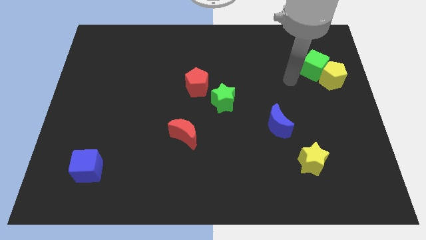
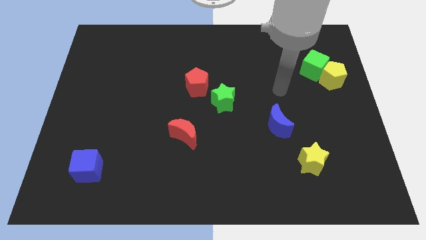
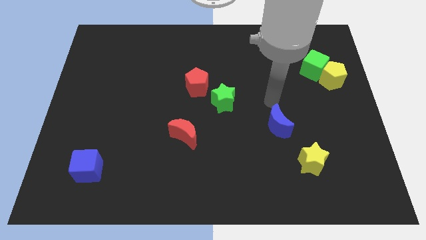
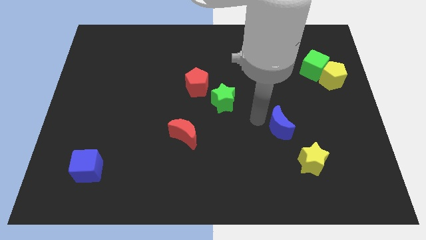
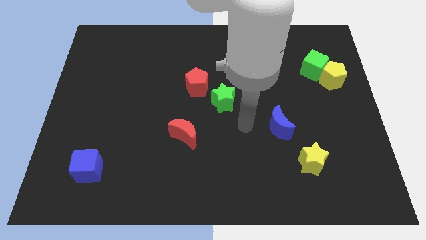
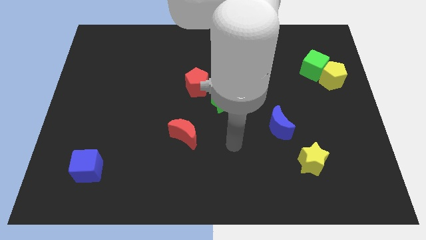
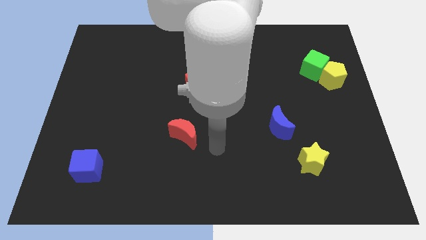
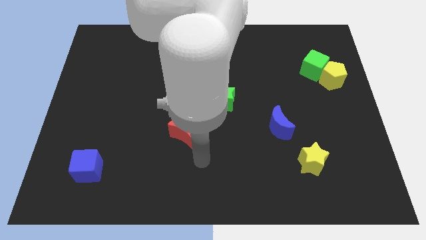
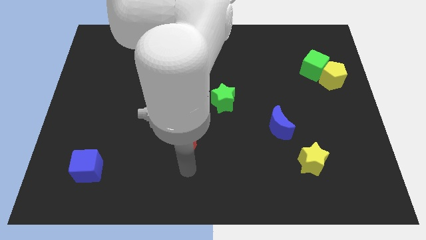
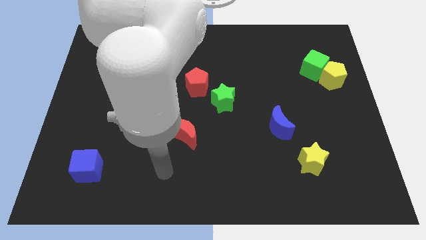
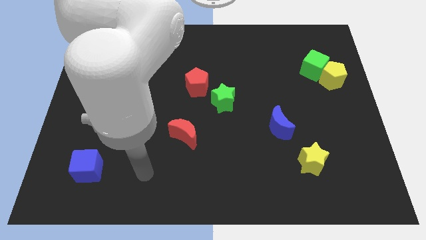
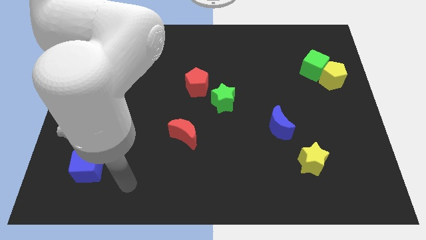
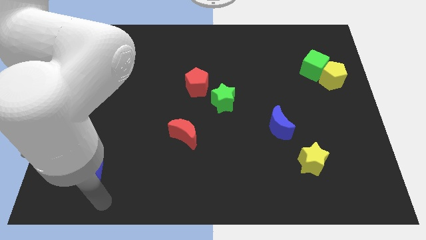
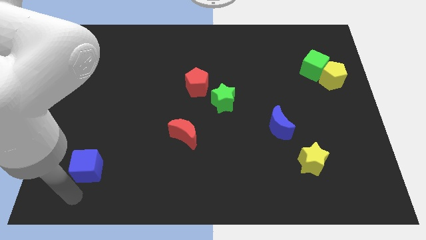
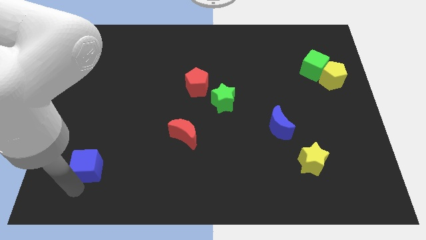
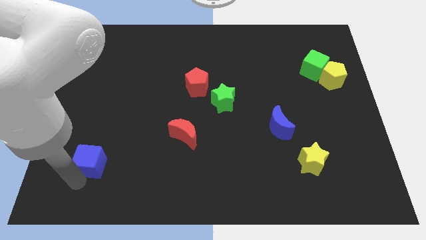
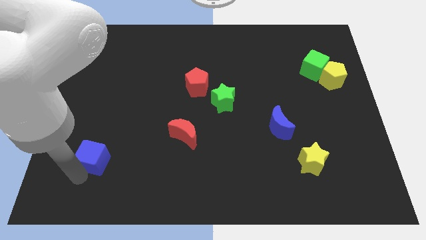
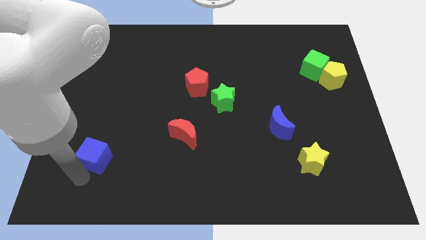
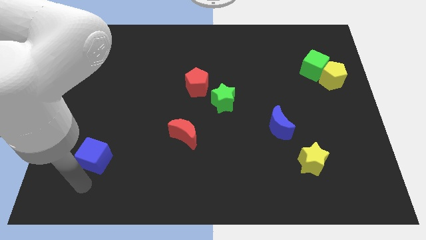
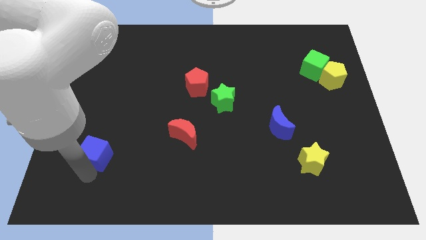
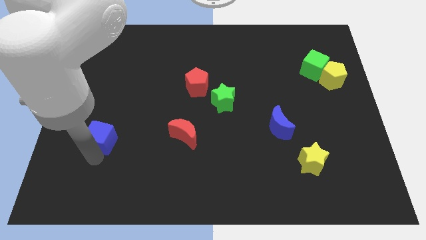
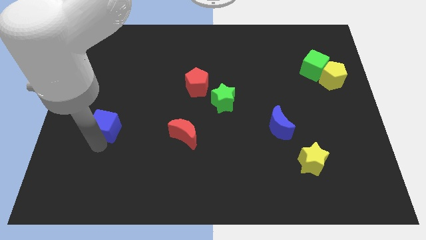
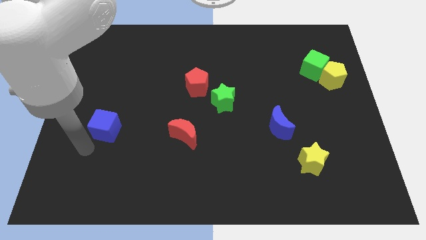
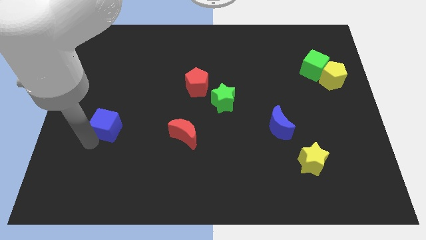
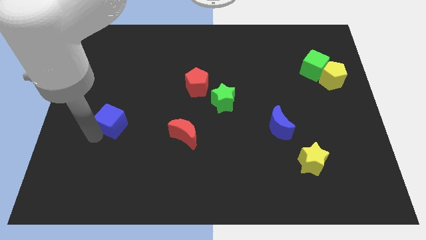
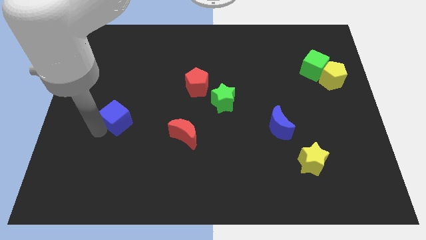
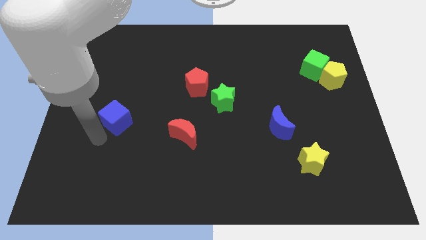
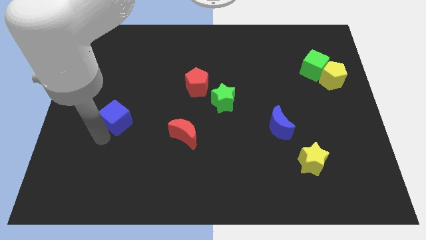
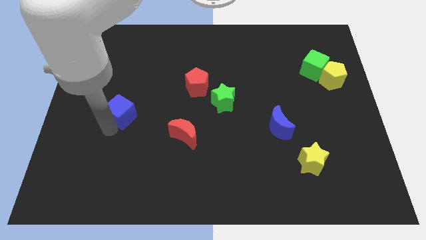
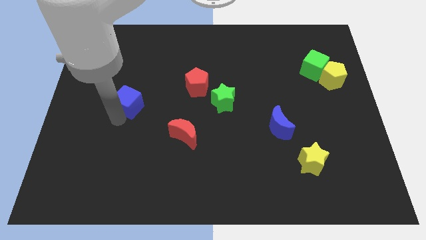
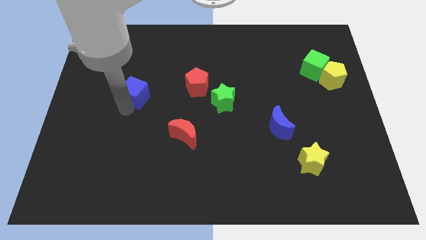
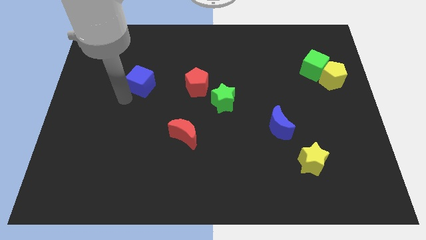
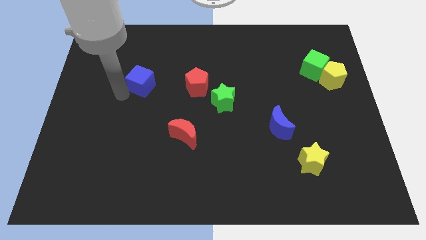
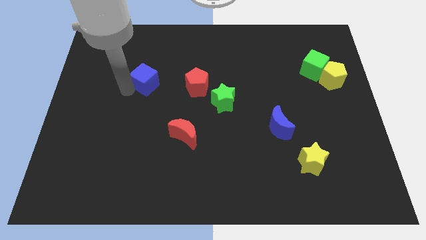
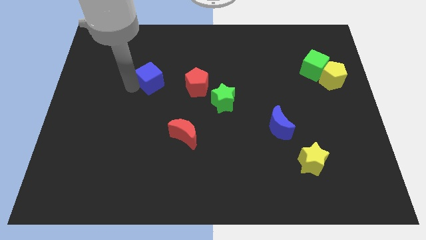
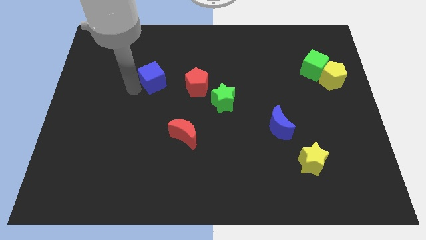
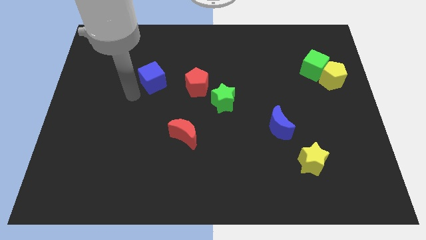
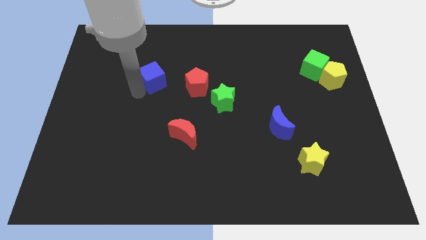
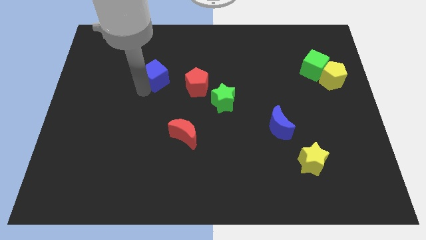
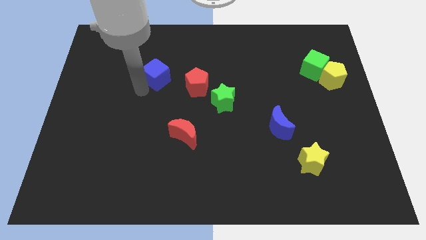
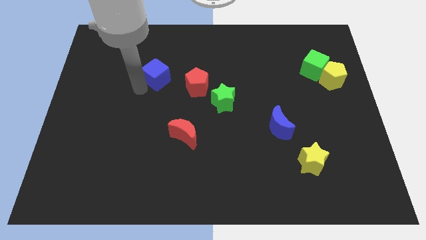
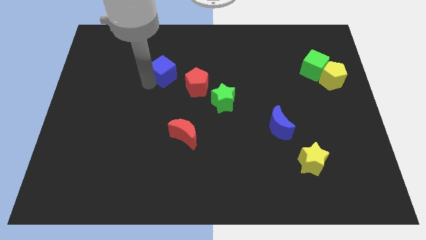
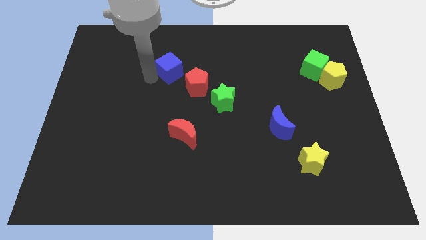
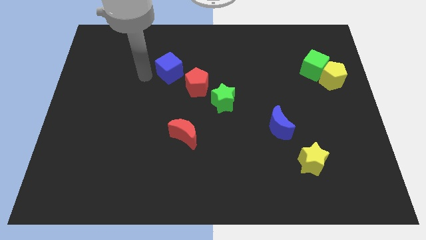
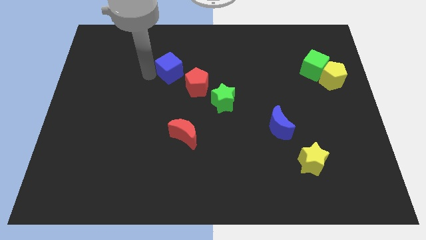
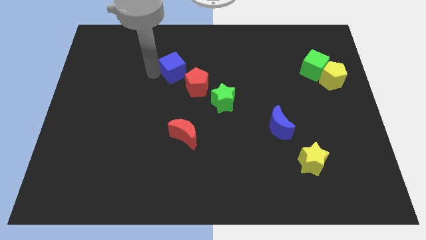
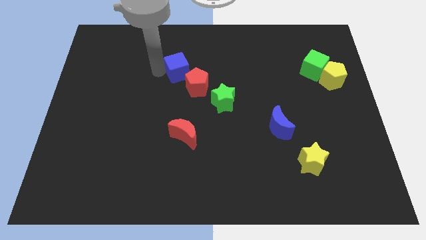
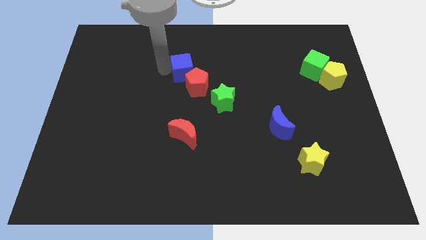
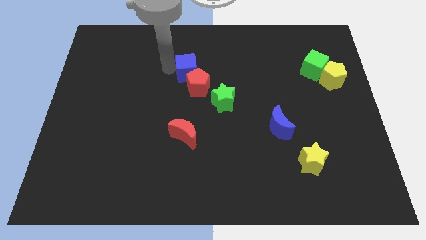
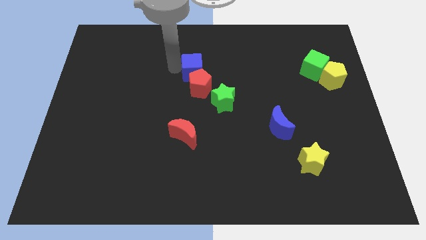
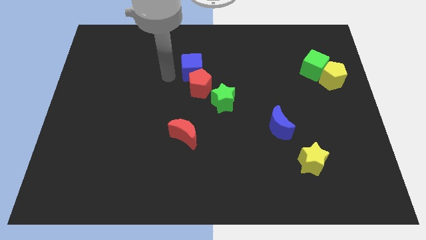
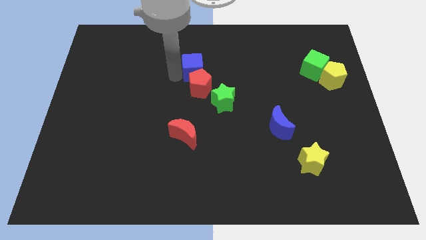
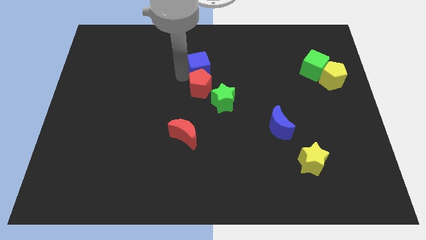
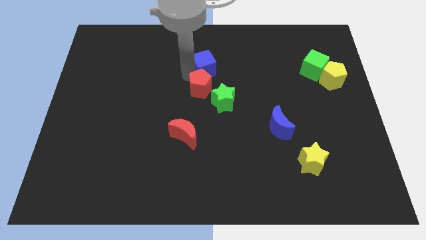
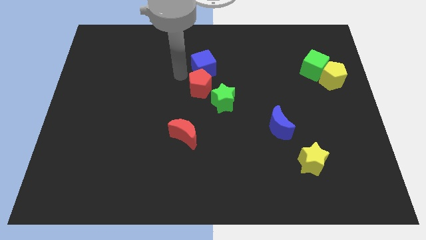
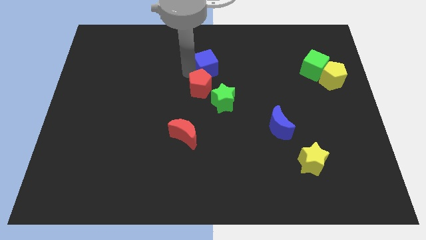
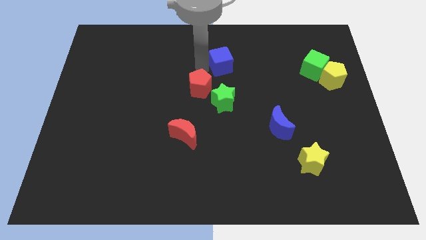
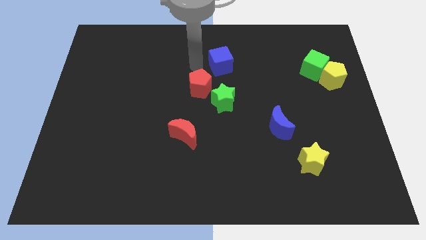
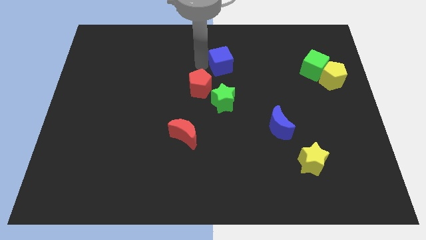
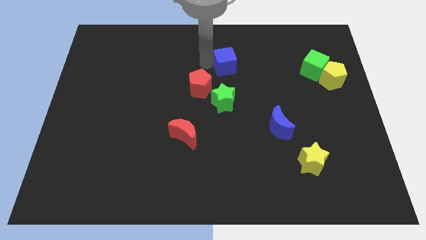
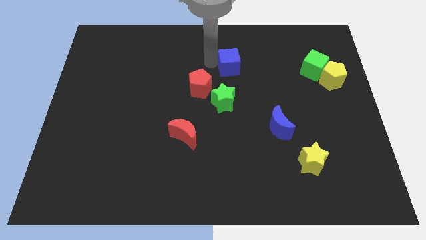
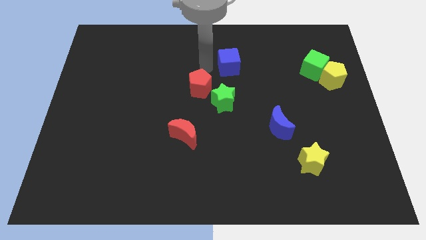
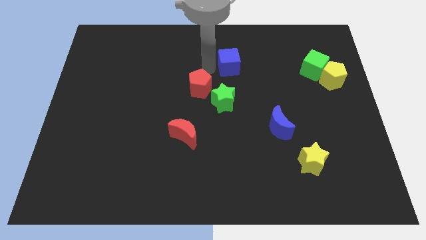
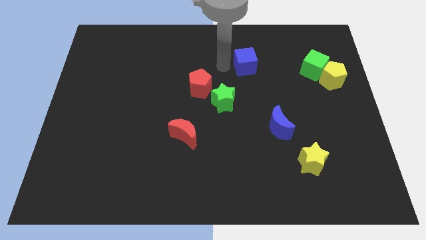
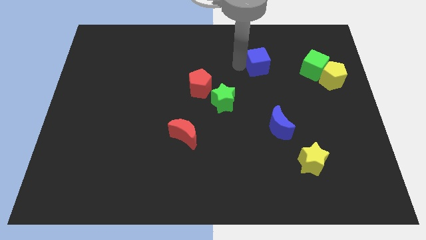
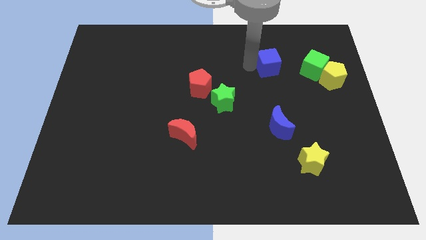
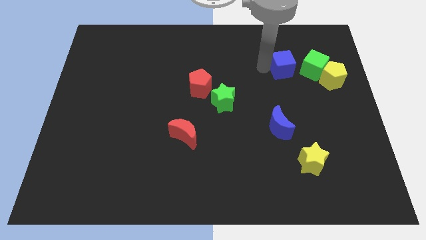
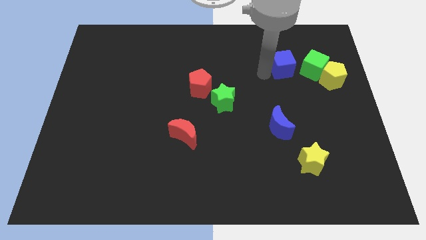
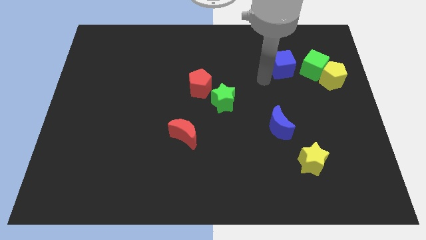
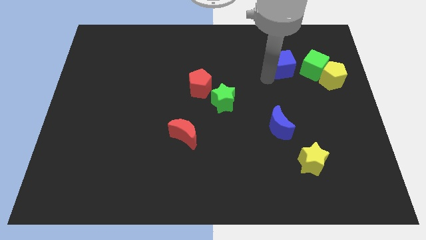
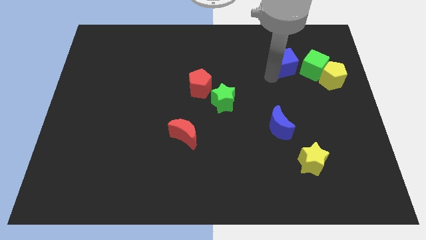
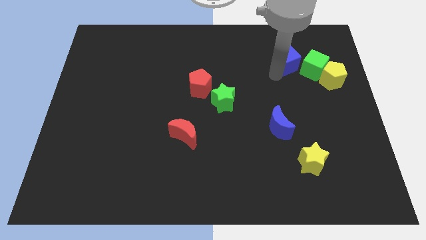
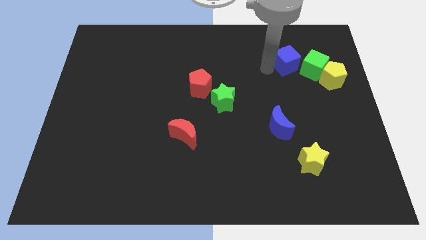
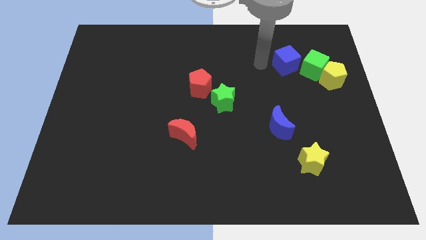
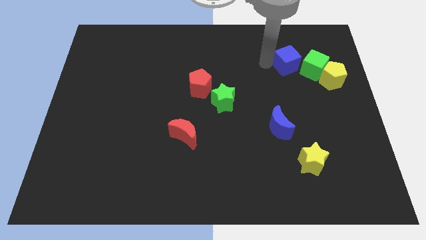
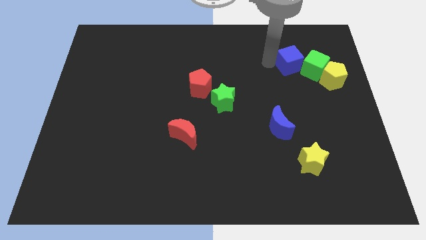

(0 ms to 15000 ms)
move the blue cube to the top left of the yellow pentagon
